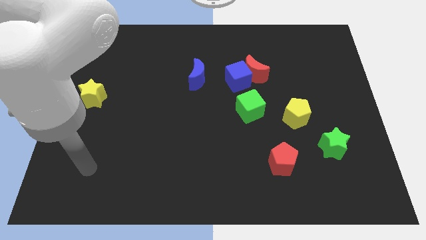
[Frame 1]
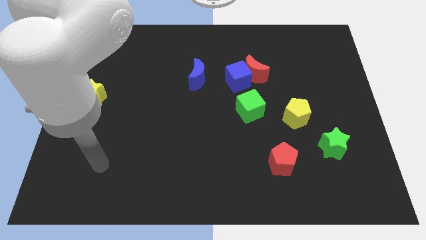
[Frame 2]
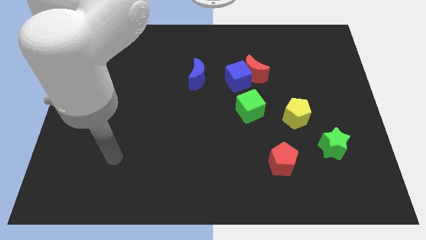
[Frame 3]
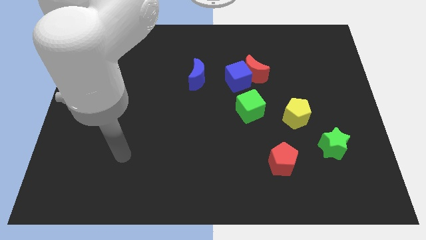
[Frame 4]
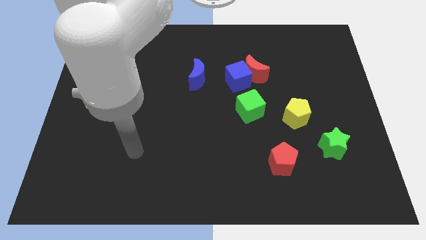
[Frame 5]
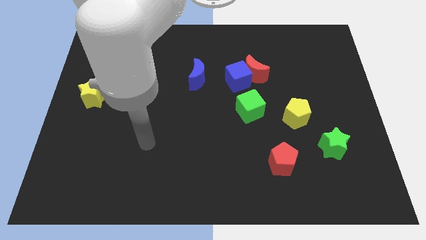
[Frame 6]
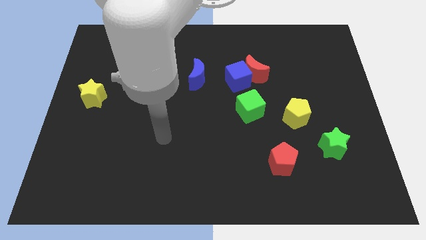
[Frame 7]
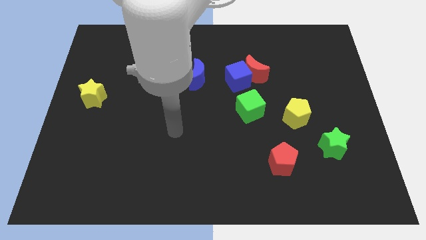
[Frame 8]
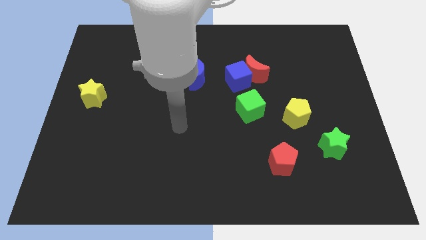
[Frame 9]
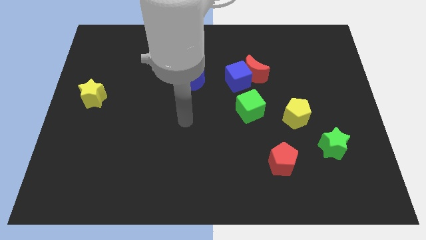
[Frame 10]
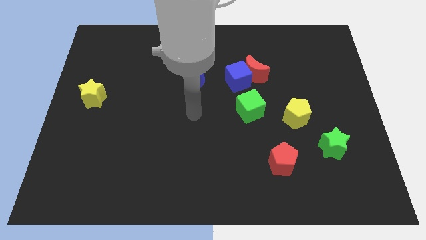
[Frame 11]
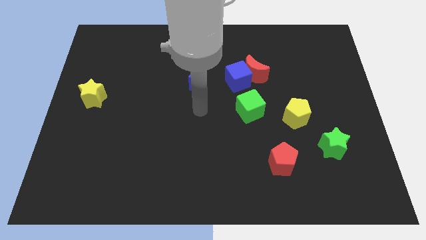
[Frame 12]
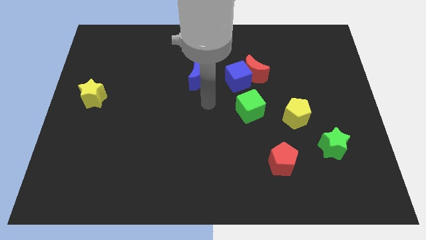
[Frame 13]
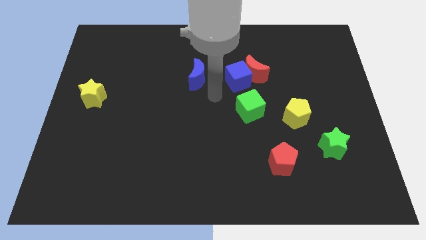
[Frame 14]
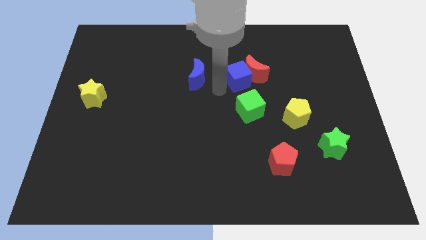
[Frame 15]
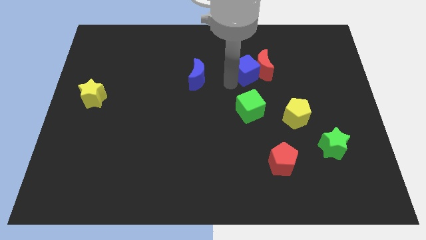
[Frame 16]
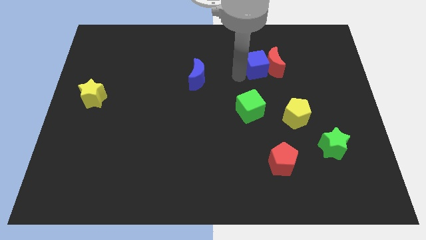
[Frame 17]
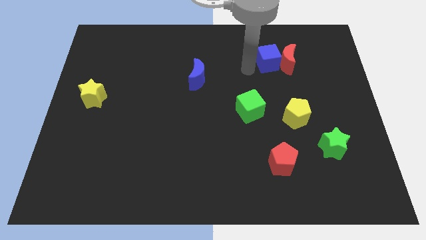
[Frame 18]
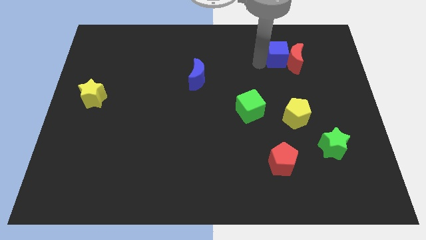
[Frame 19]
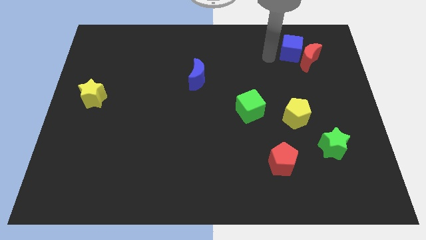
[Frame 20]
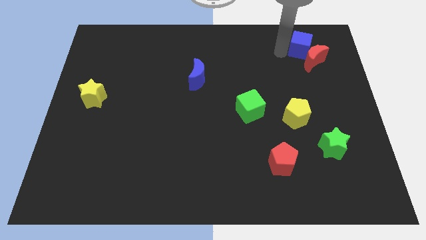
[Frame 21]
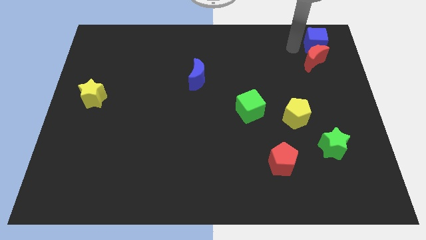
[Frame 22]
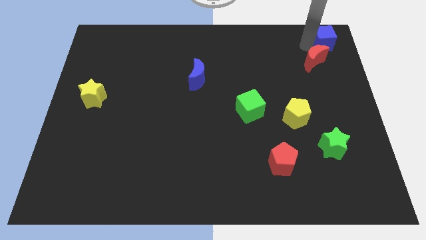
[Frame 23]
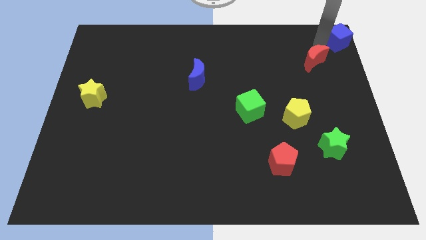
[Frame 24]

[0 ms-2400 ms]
move the red moon away from the blue cube

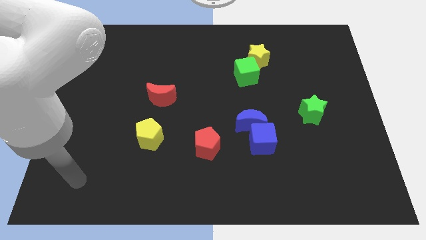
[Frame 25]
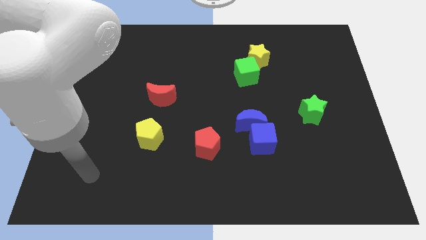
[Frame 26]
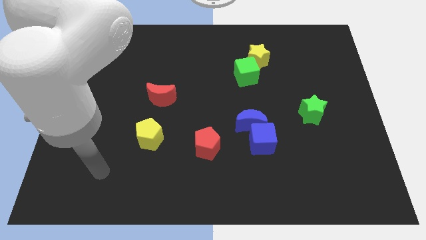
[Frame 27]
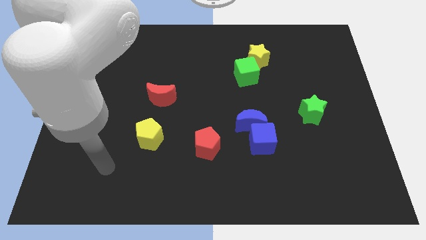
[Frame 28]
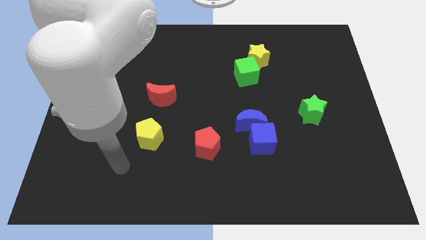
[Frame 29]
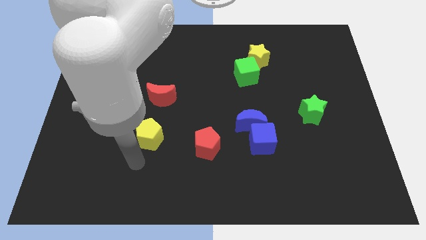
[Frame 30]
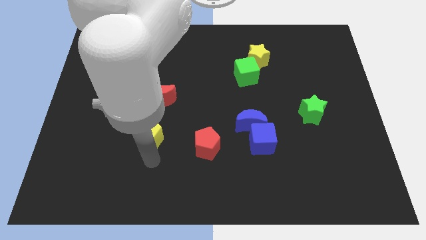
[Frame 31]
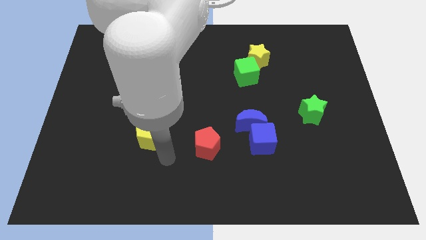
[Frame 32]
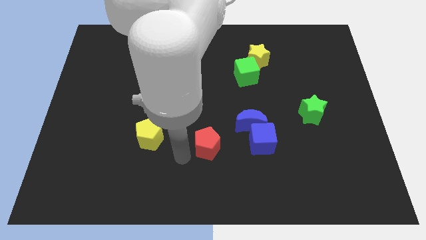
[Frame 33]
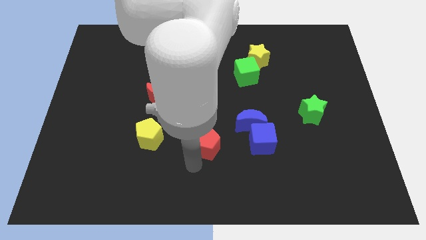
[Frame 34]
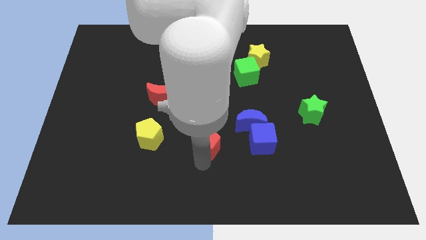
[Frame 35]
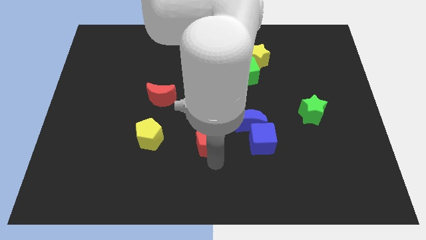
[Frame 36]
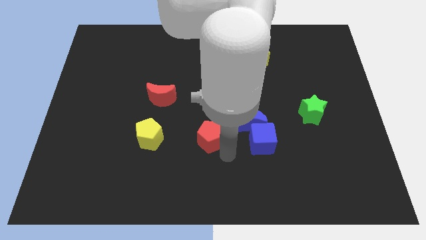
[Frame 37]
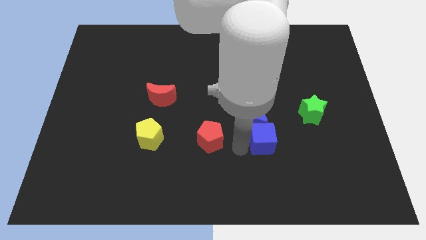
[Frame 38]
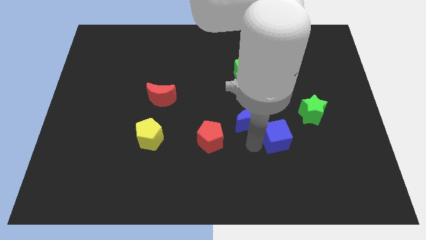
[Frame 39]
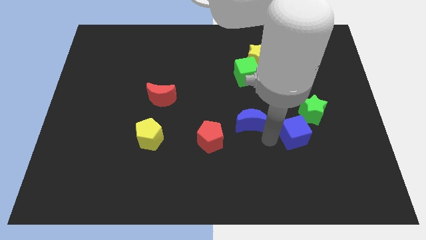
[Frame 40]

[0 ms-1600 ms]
move the blue moon away from the blue cube

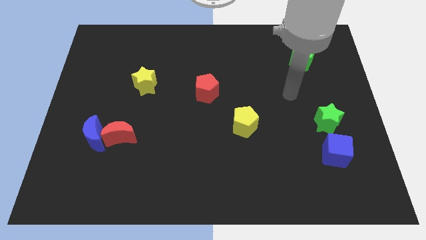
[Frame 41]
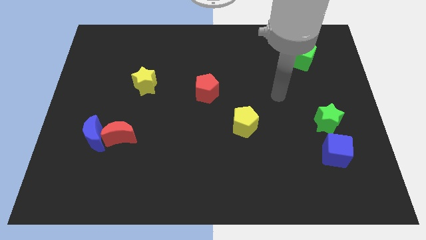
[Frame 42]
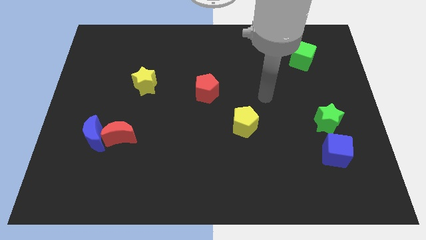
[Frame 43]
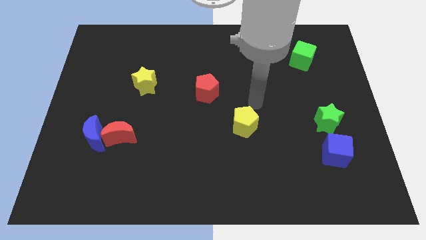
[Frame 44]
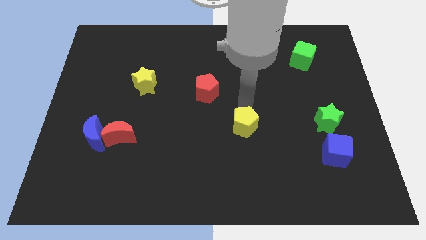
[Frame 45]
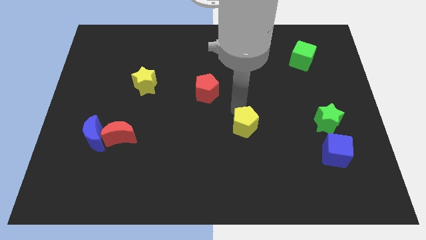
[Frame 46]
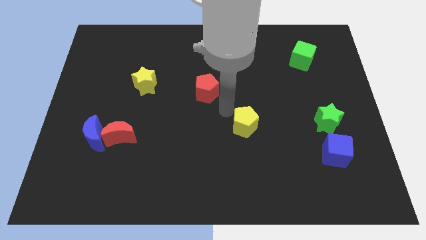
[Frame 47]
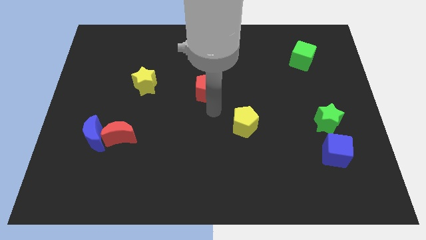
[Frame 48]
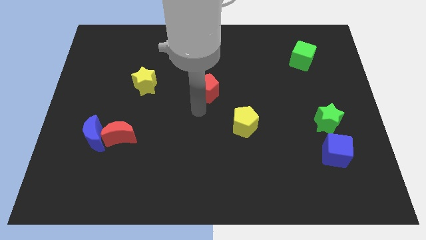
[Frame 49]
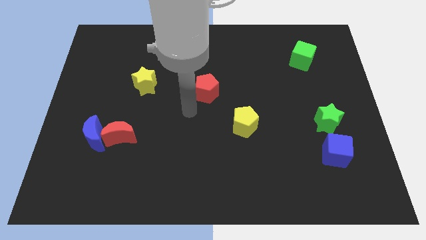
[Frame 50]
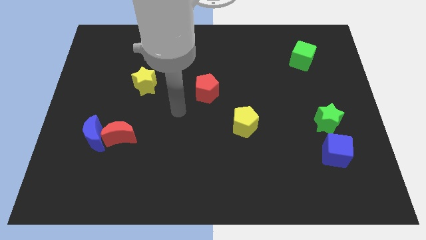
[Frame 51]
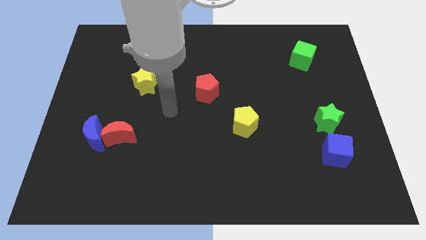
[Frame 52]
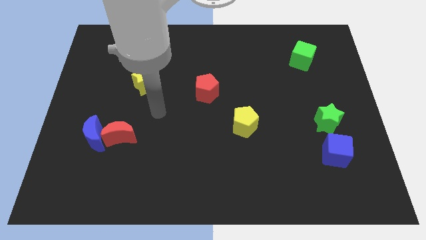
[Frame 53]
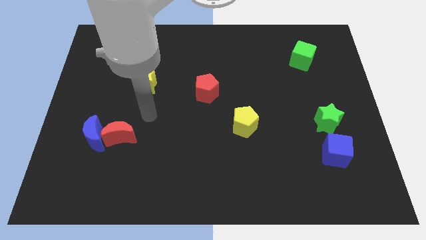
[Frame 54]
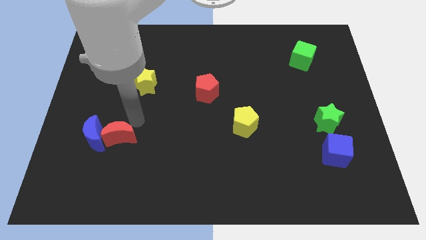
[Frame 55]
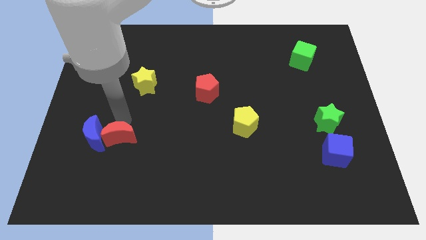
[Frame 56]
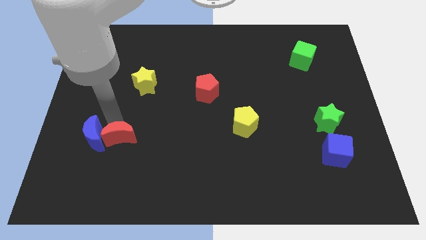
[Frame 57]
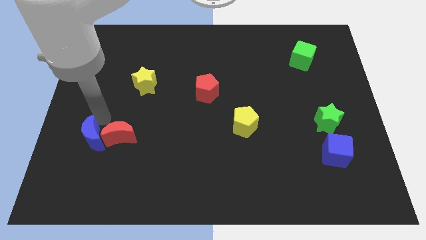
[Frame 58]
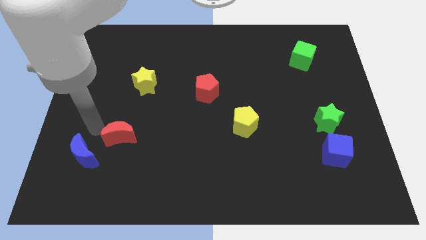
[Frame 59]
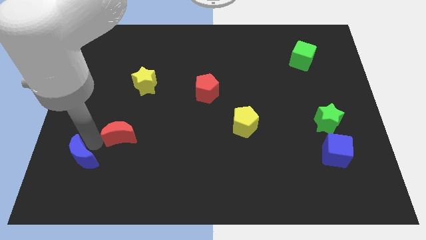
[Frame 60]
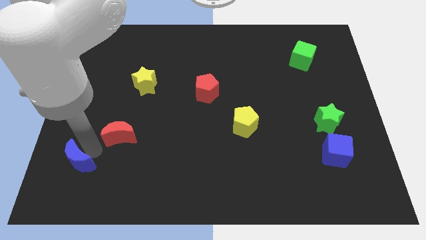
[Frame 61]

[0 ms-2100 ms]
pull the red moon apart from the blue moon

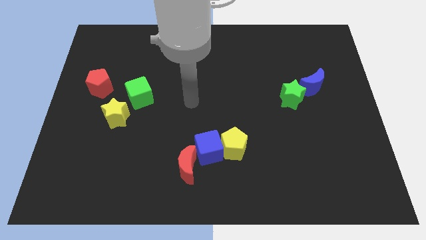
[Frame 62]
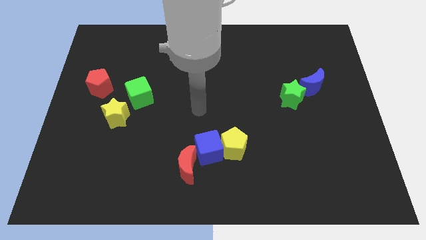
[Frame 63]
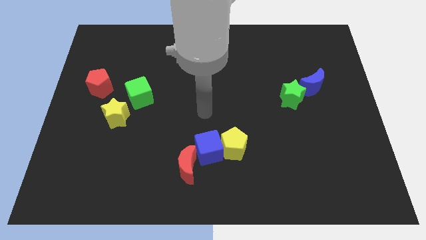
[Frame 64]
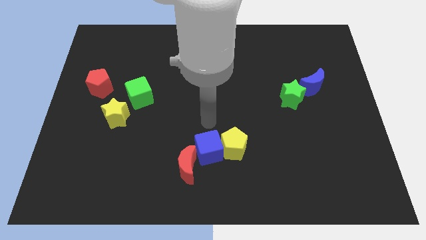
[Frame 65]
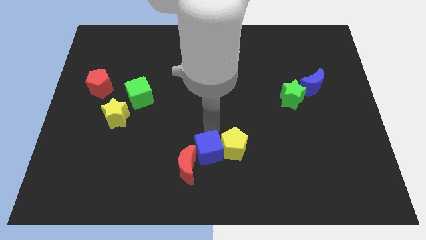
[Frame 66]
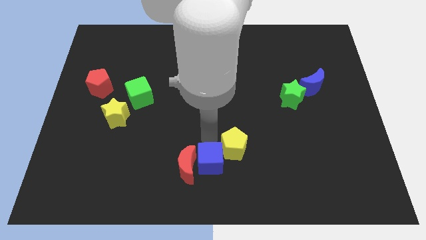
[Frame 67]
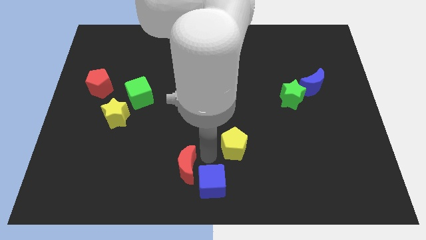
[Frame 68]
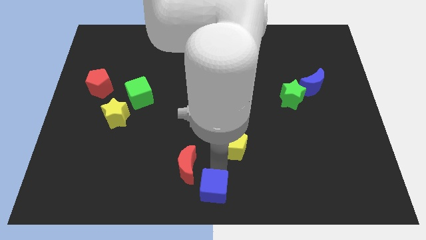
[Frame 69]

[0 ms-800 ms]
separate the yellow pentagon from the blue cube

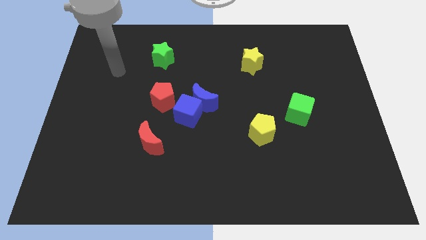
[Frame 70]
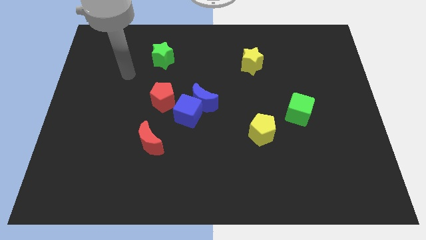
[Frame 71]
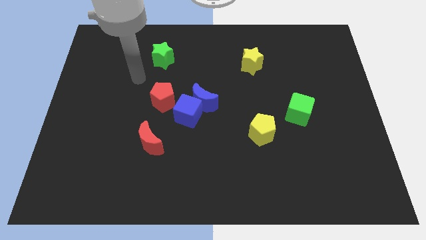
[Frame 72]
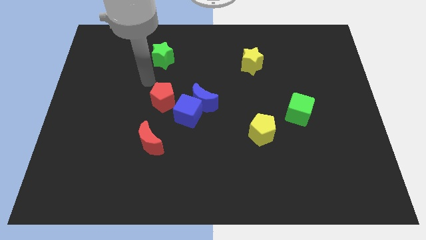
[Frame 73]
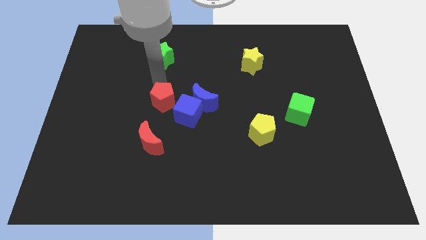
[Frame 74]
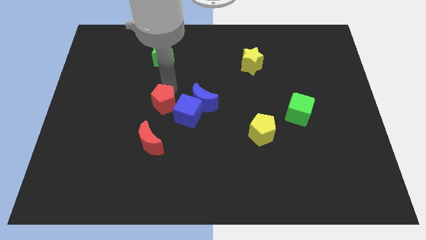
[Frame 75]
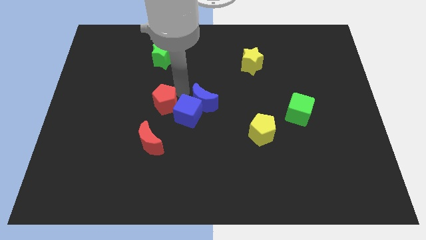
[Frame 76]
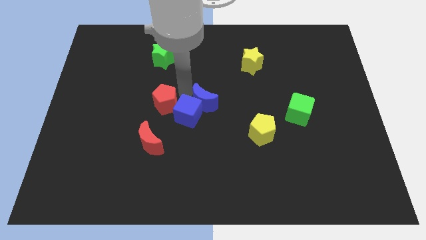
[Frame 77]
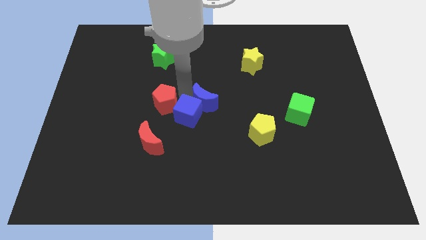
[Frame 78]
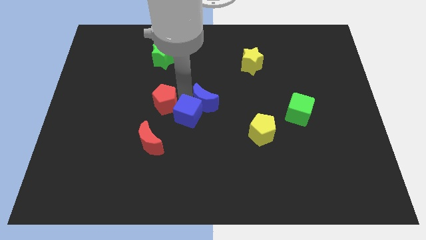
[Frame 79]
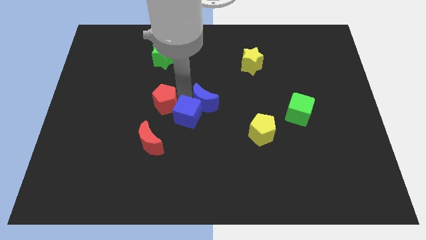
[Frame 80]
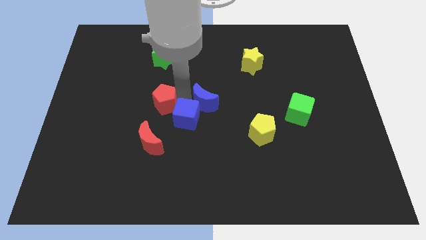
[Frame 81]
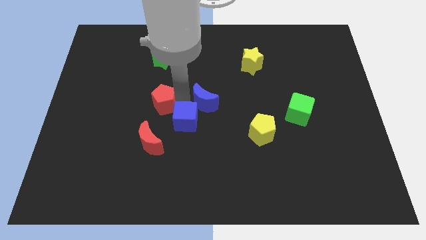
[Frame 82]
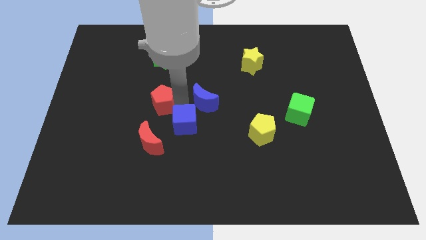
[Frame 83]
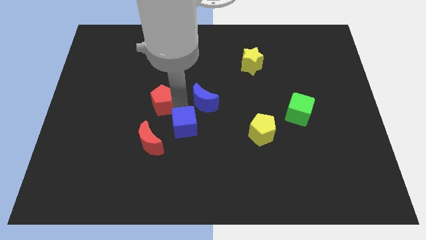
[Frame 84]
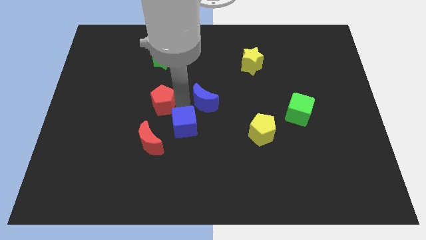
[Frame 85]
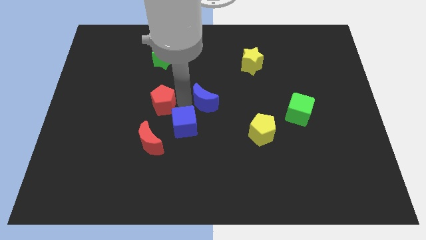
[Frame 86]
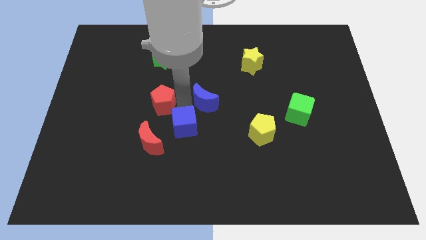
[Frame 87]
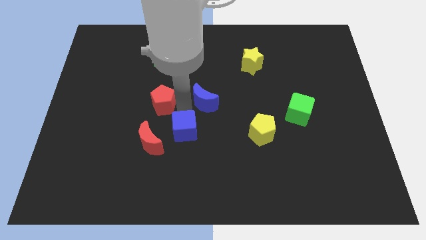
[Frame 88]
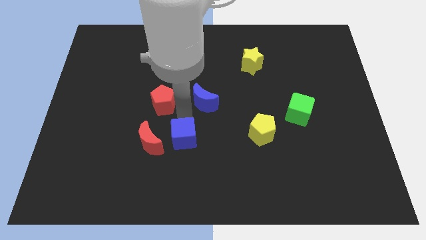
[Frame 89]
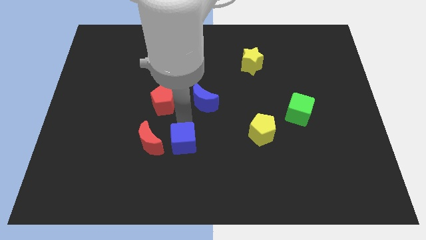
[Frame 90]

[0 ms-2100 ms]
pull the blue cube apart from the blue moon and red pentagon

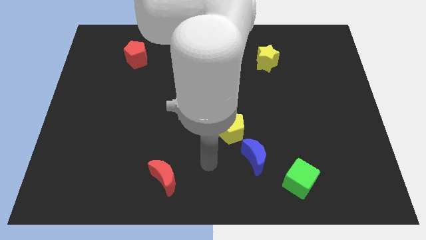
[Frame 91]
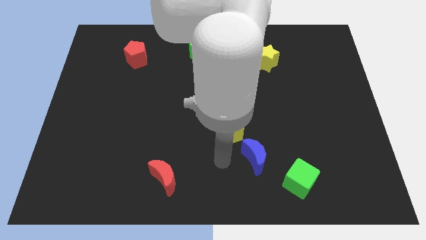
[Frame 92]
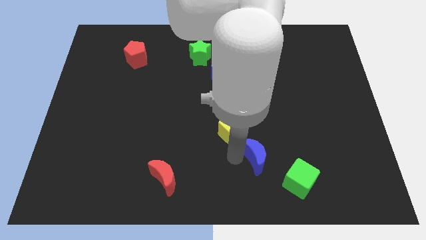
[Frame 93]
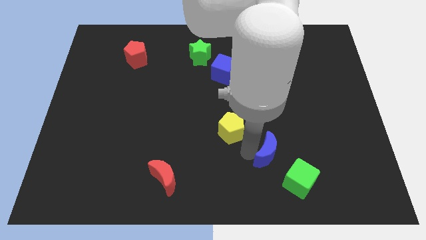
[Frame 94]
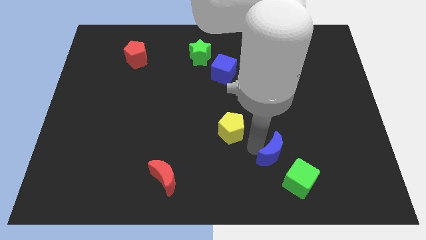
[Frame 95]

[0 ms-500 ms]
separate the yellow pentagon from the blue moon
